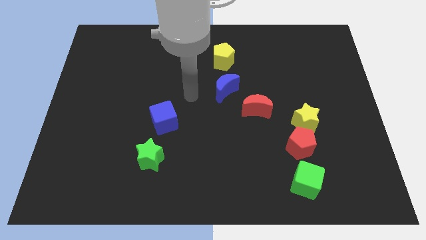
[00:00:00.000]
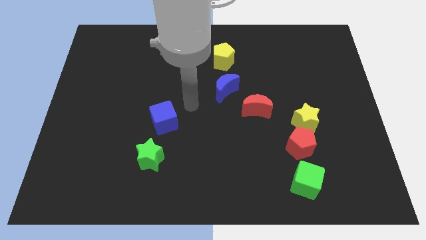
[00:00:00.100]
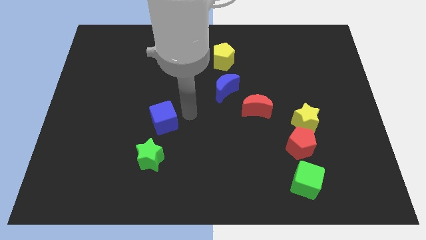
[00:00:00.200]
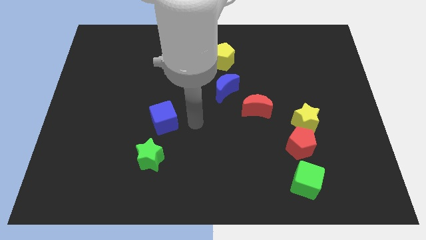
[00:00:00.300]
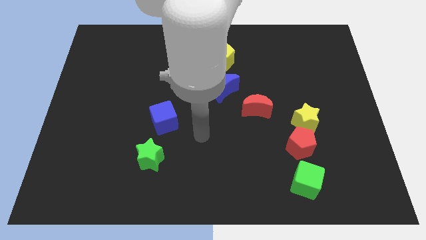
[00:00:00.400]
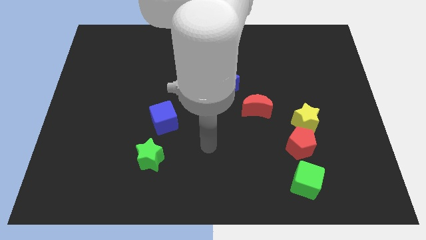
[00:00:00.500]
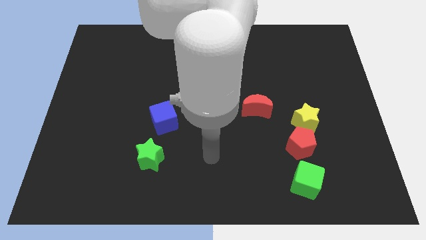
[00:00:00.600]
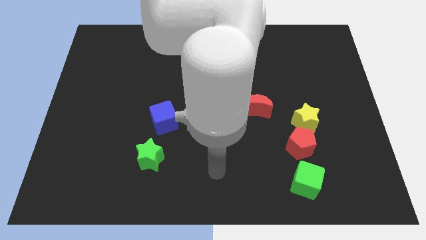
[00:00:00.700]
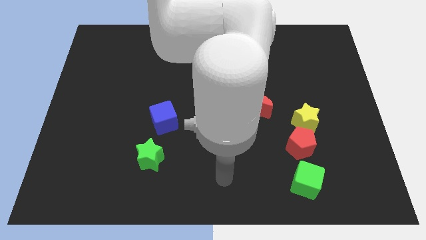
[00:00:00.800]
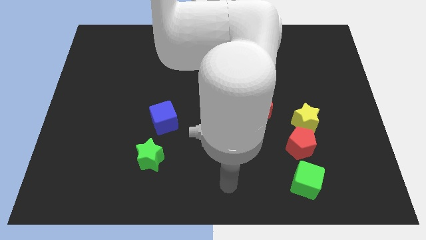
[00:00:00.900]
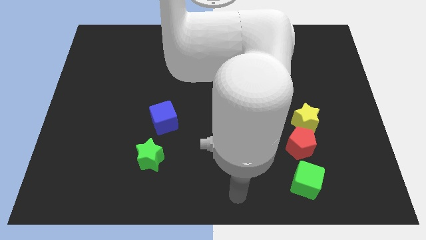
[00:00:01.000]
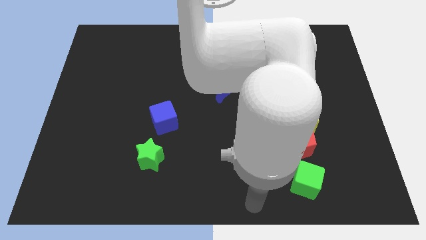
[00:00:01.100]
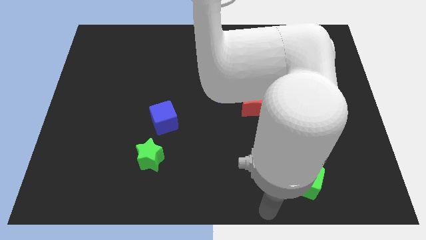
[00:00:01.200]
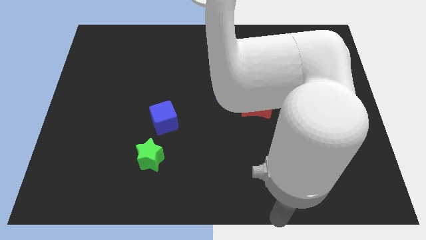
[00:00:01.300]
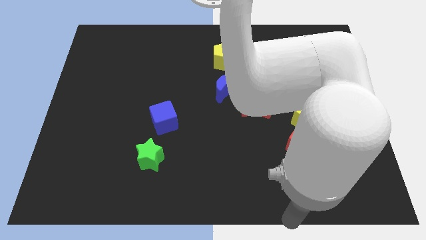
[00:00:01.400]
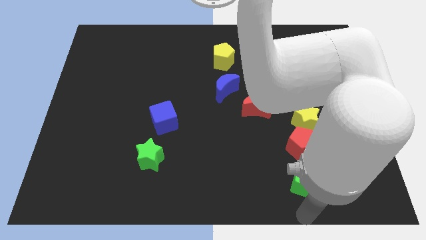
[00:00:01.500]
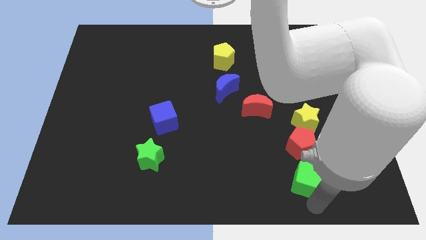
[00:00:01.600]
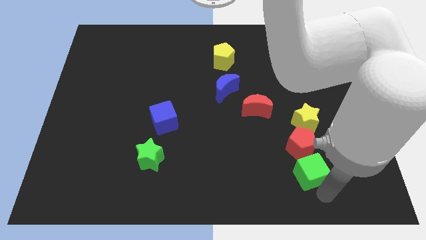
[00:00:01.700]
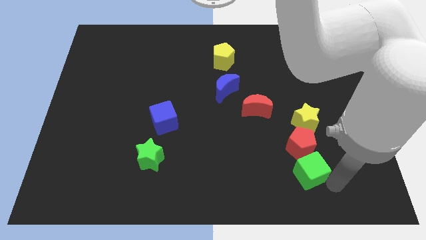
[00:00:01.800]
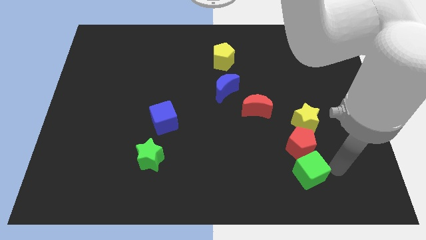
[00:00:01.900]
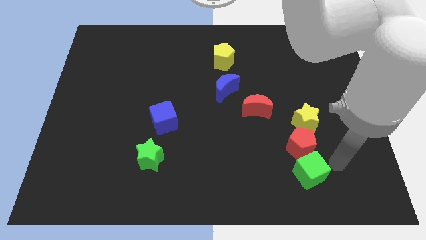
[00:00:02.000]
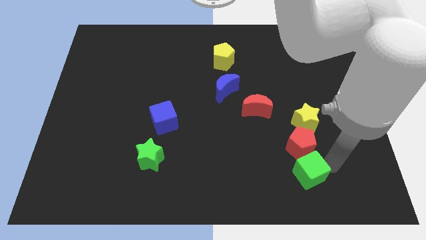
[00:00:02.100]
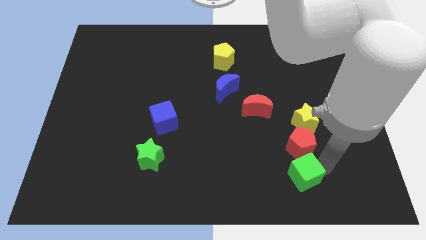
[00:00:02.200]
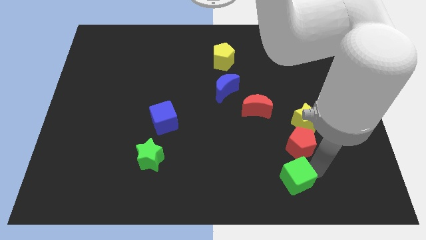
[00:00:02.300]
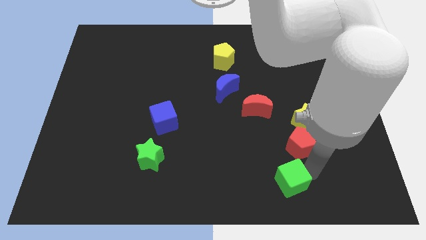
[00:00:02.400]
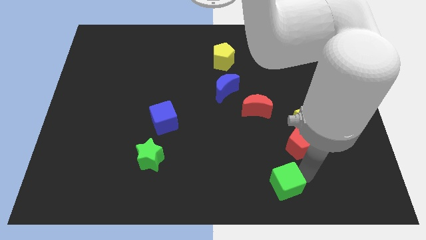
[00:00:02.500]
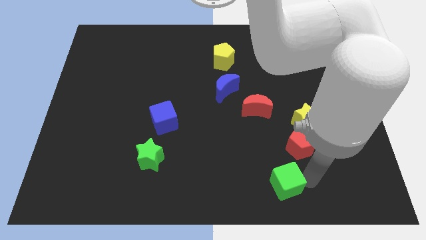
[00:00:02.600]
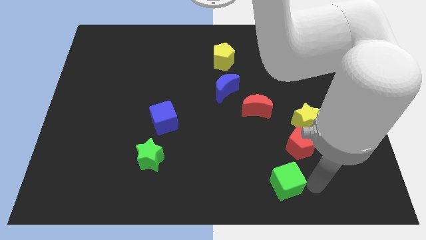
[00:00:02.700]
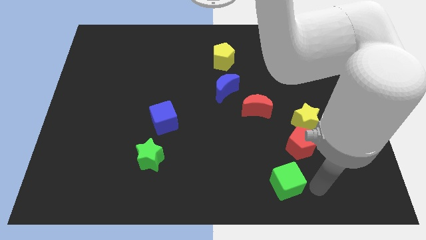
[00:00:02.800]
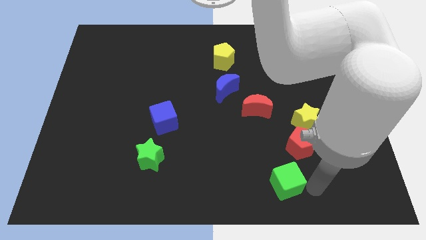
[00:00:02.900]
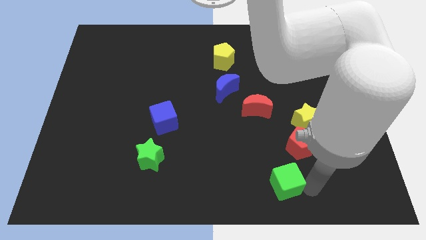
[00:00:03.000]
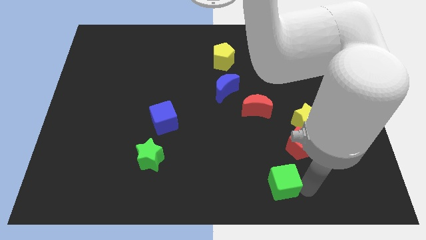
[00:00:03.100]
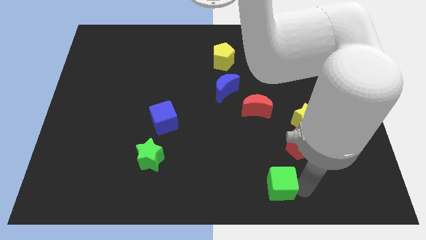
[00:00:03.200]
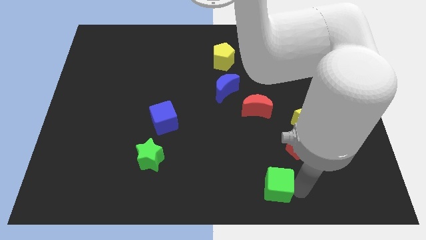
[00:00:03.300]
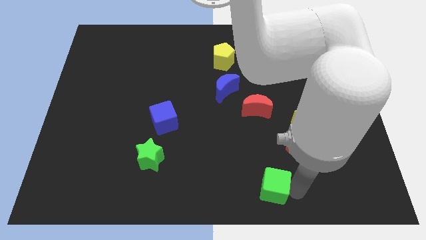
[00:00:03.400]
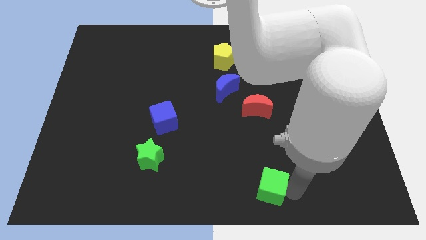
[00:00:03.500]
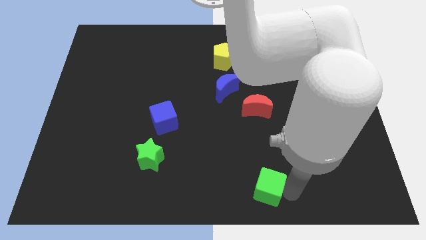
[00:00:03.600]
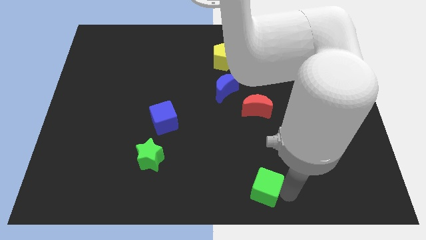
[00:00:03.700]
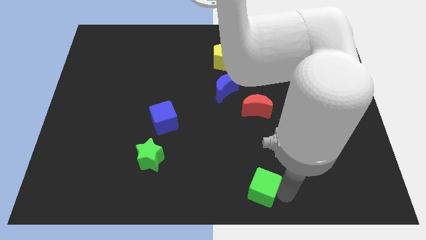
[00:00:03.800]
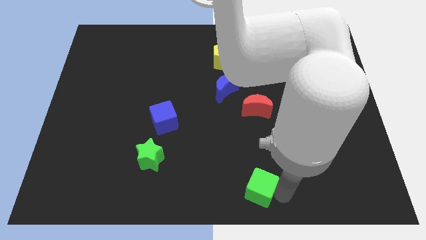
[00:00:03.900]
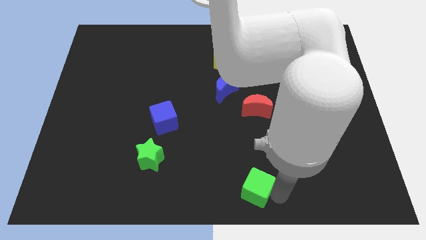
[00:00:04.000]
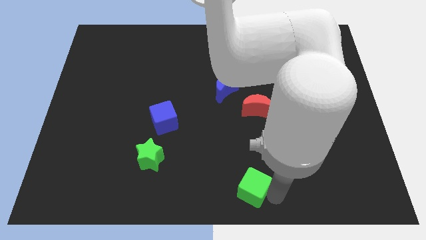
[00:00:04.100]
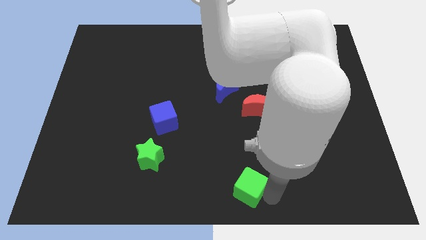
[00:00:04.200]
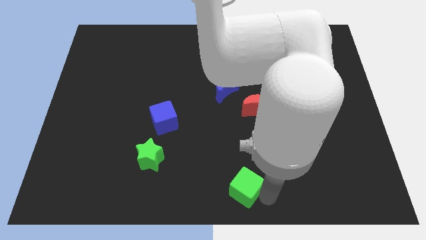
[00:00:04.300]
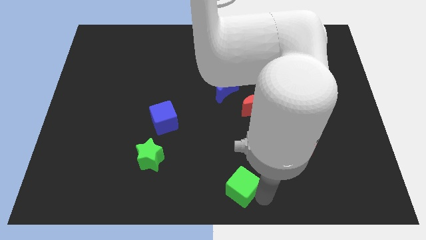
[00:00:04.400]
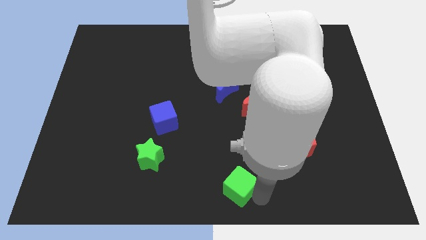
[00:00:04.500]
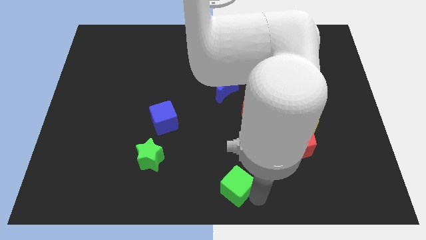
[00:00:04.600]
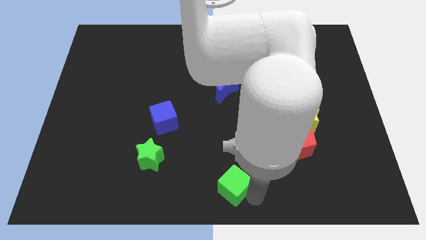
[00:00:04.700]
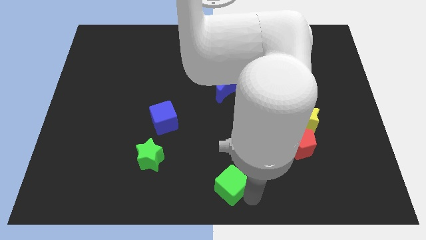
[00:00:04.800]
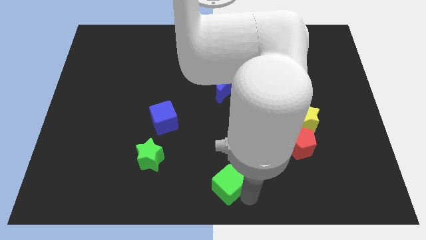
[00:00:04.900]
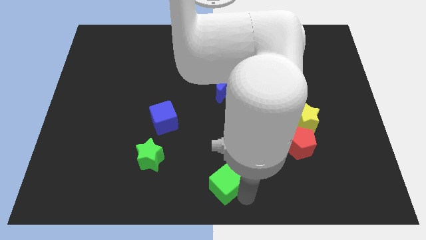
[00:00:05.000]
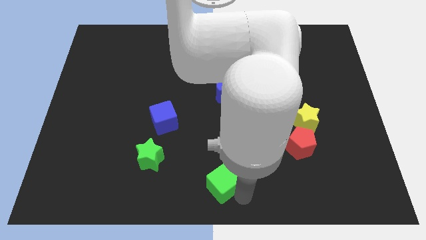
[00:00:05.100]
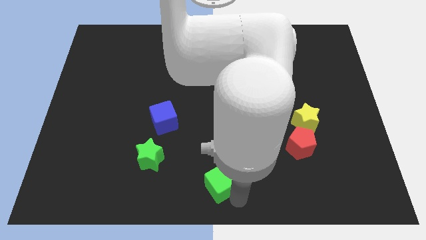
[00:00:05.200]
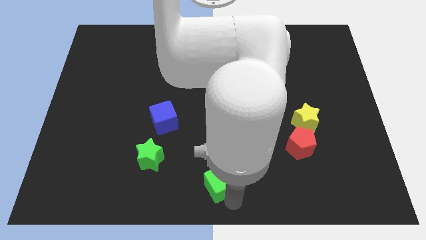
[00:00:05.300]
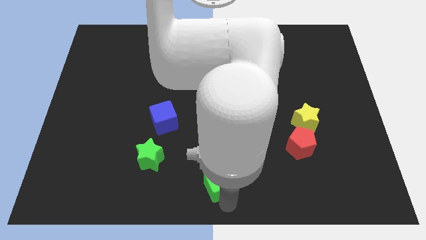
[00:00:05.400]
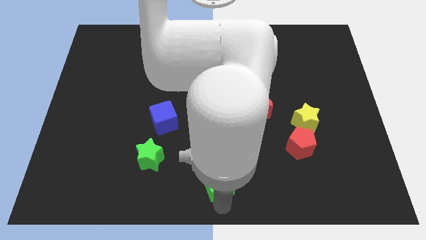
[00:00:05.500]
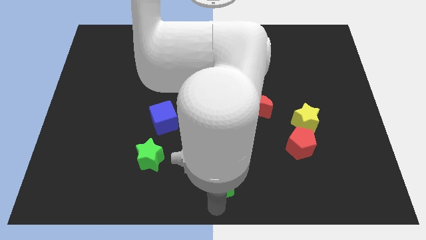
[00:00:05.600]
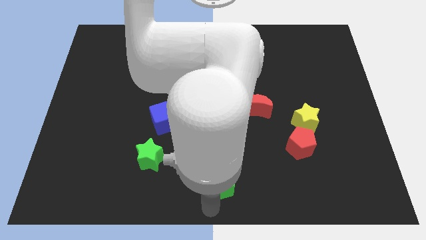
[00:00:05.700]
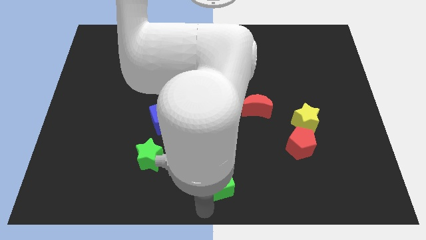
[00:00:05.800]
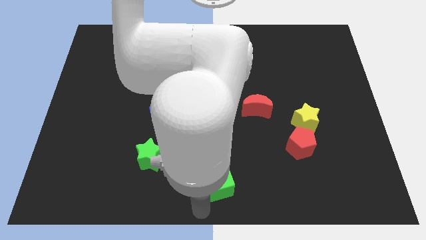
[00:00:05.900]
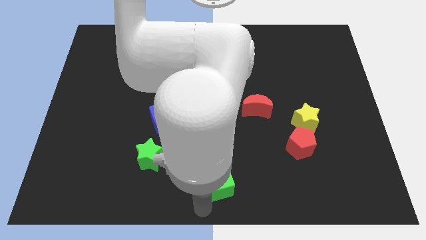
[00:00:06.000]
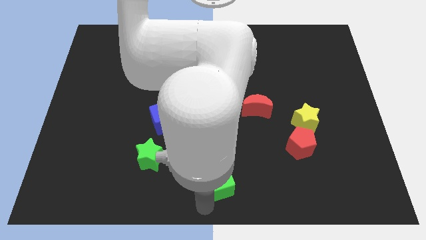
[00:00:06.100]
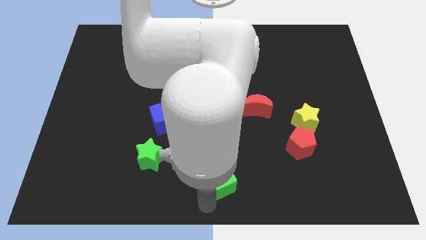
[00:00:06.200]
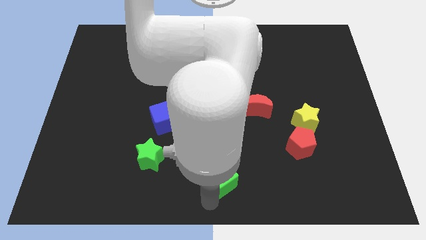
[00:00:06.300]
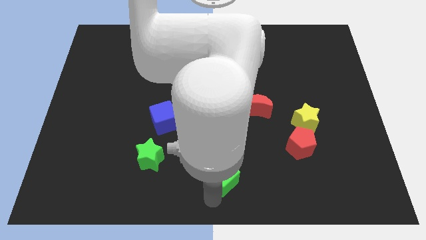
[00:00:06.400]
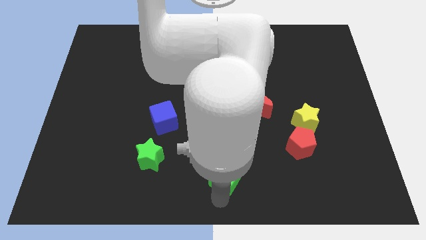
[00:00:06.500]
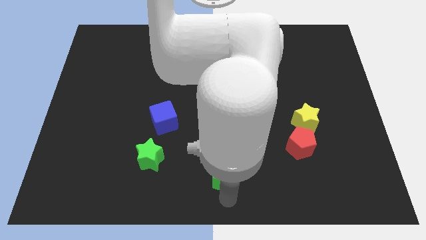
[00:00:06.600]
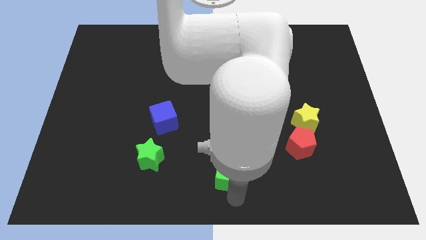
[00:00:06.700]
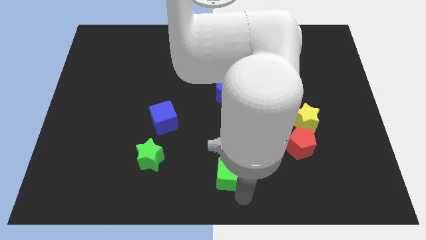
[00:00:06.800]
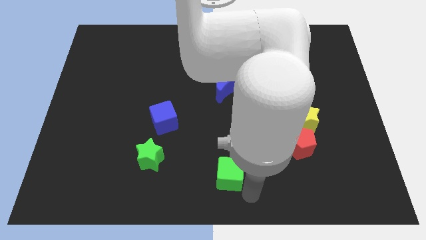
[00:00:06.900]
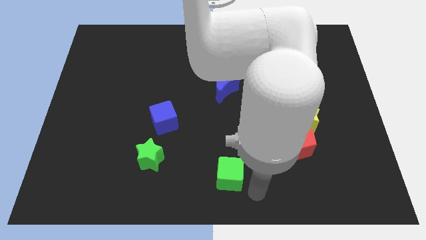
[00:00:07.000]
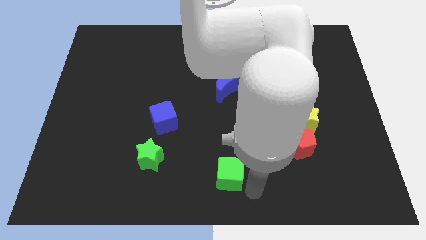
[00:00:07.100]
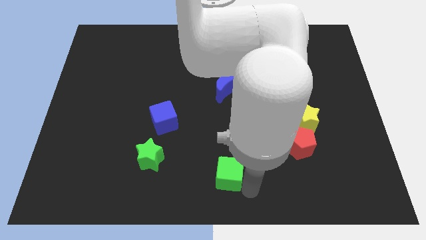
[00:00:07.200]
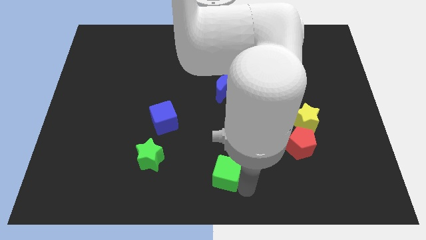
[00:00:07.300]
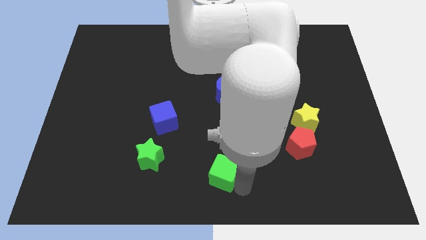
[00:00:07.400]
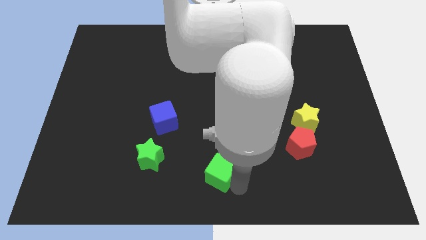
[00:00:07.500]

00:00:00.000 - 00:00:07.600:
push the green cube just right of the green star

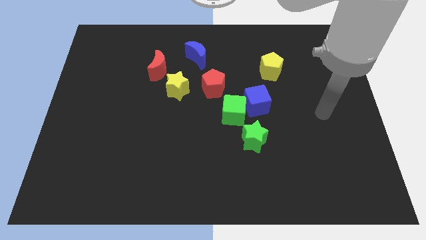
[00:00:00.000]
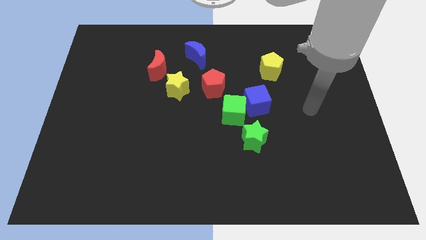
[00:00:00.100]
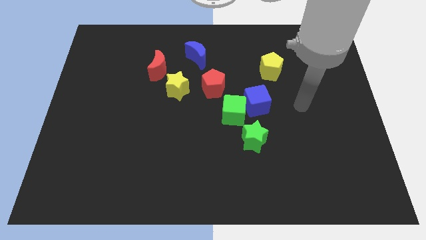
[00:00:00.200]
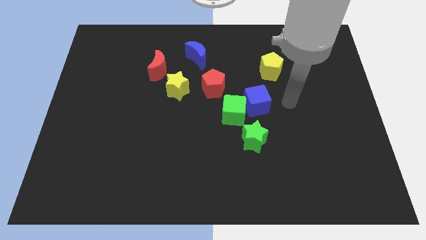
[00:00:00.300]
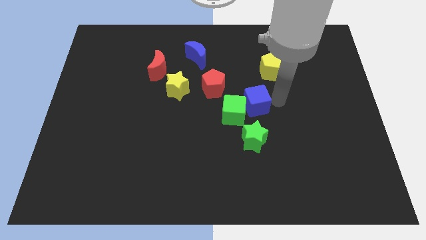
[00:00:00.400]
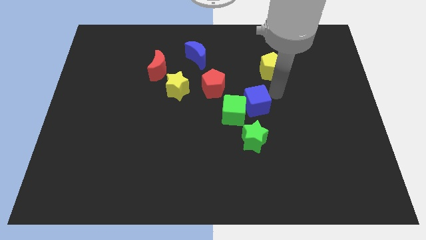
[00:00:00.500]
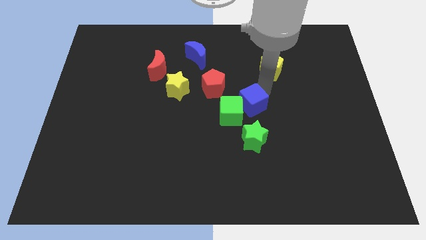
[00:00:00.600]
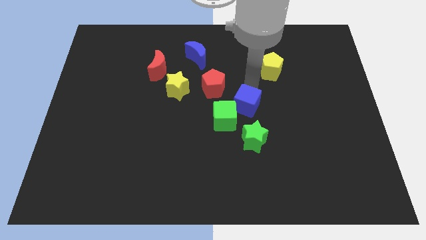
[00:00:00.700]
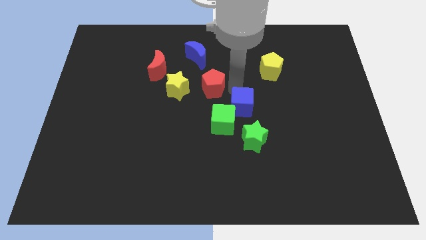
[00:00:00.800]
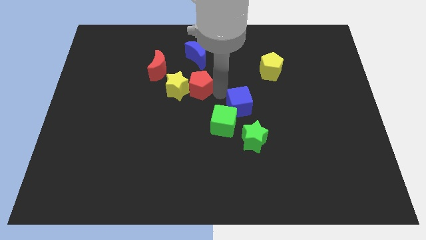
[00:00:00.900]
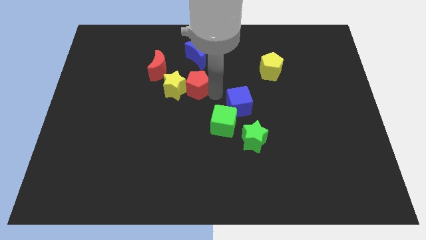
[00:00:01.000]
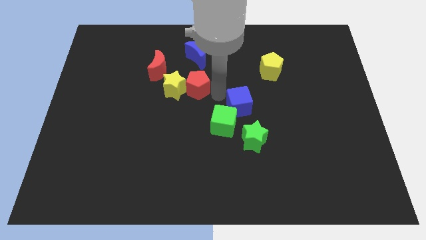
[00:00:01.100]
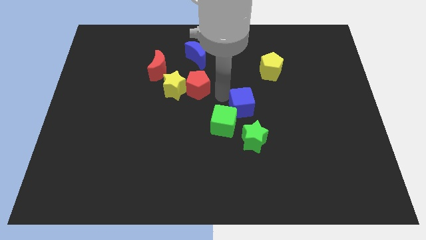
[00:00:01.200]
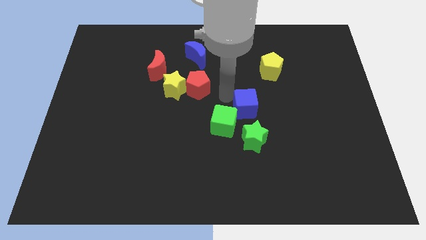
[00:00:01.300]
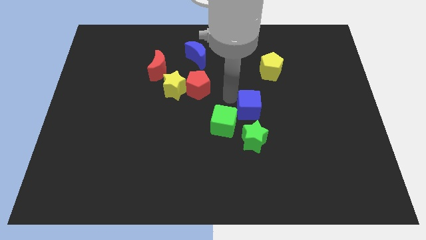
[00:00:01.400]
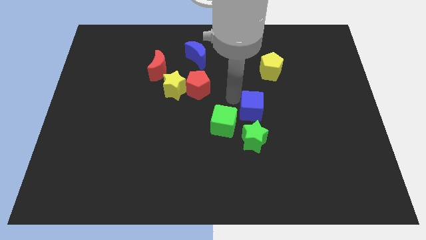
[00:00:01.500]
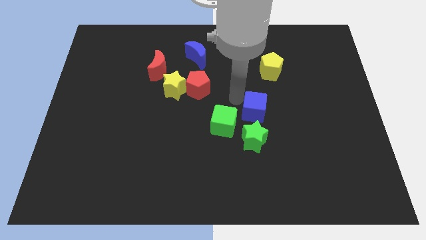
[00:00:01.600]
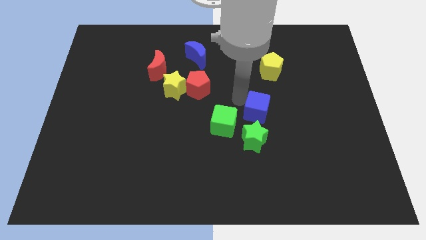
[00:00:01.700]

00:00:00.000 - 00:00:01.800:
slide the blue cube to the top right of the green star
